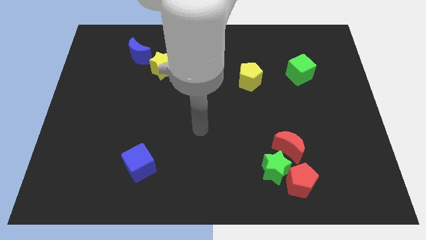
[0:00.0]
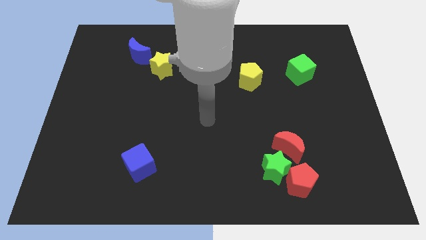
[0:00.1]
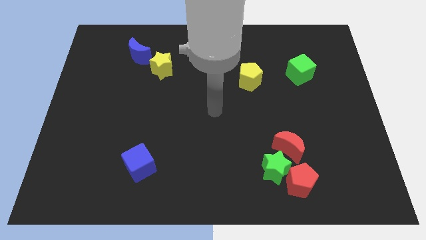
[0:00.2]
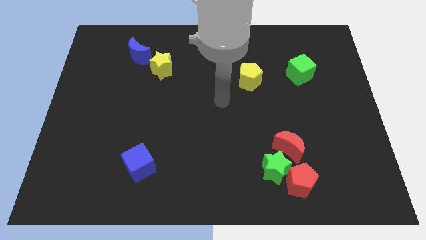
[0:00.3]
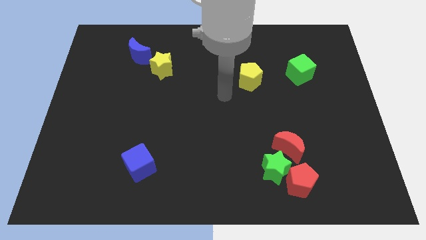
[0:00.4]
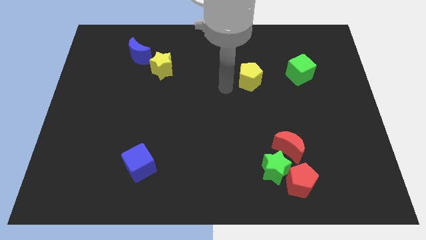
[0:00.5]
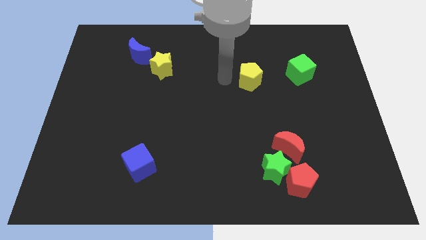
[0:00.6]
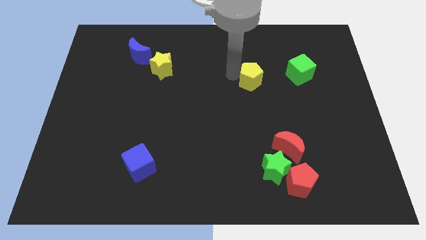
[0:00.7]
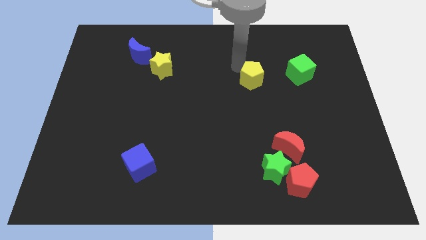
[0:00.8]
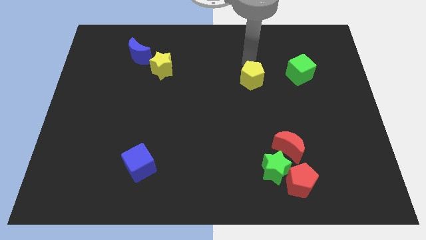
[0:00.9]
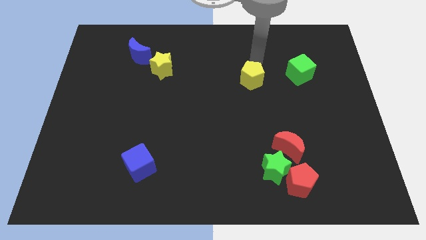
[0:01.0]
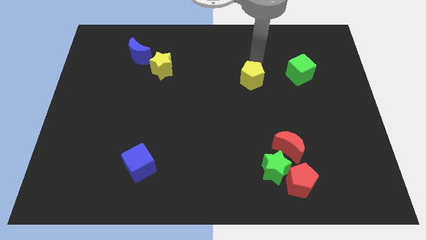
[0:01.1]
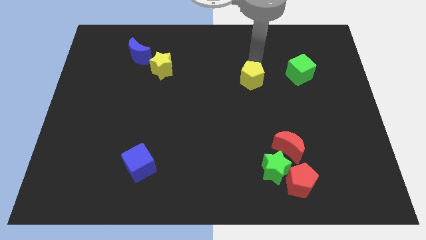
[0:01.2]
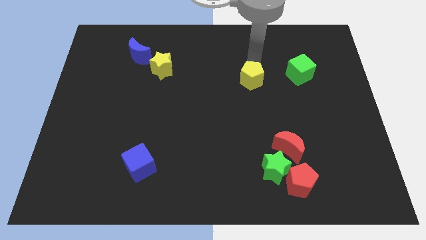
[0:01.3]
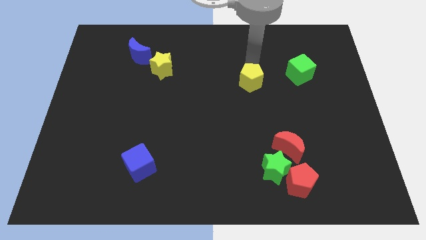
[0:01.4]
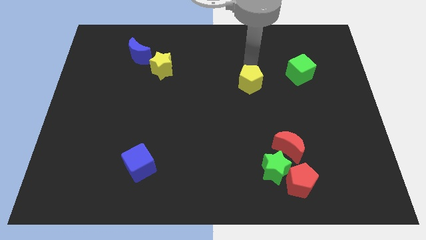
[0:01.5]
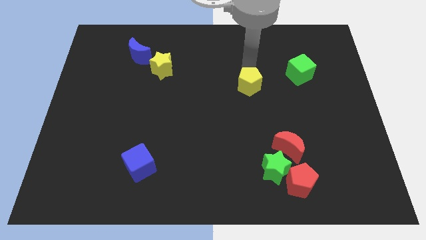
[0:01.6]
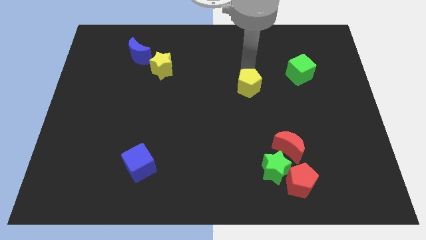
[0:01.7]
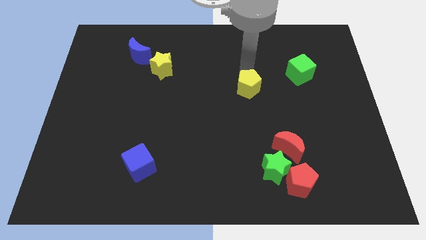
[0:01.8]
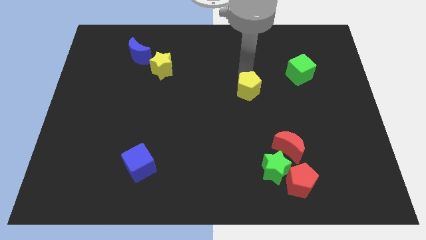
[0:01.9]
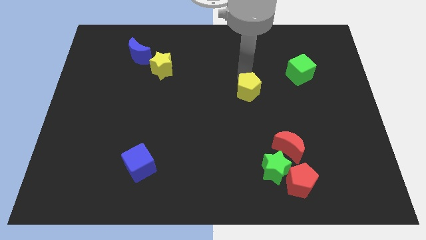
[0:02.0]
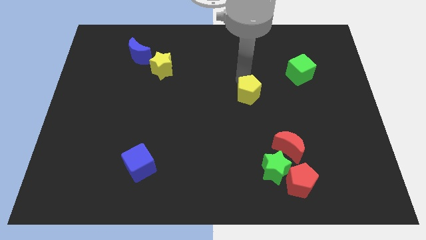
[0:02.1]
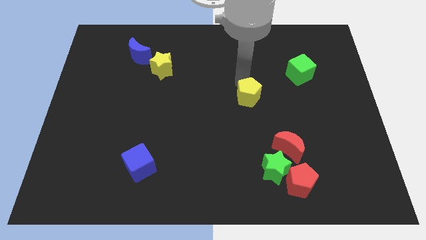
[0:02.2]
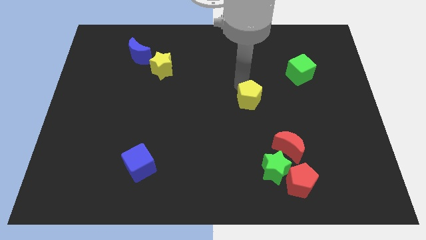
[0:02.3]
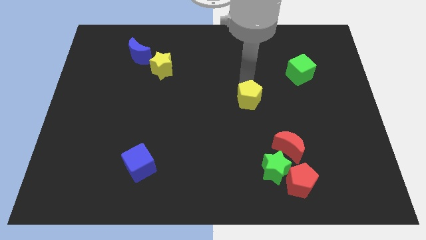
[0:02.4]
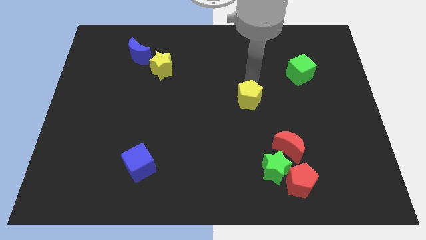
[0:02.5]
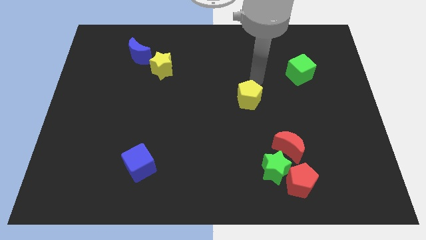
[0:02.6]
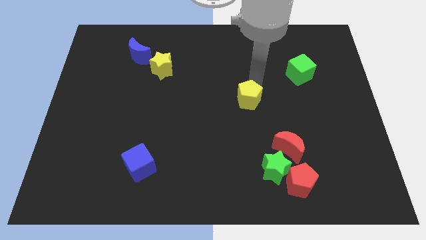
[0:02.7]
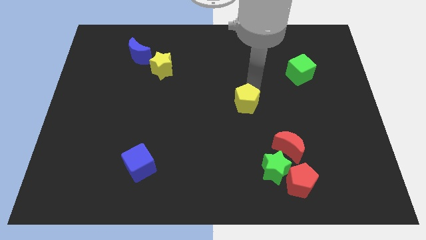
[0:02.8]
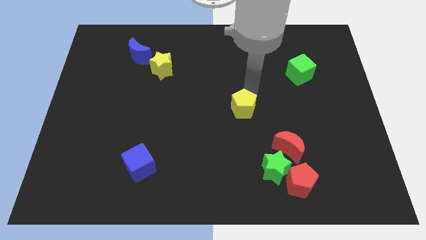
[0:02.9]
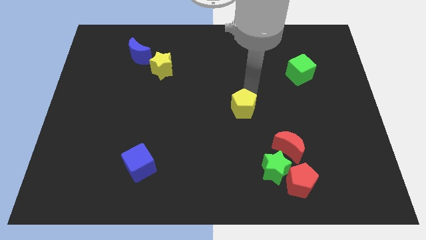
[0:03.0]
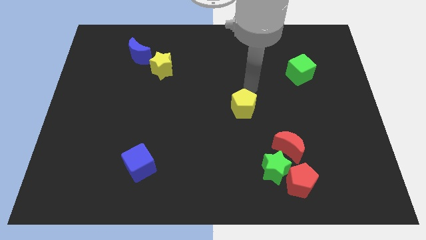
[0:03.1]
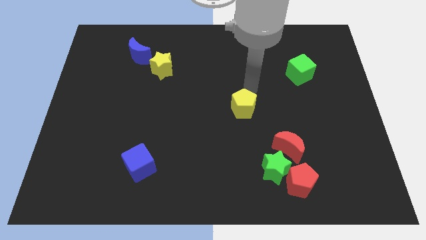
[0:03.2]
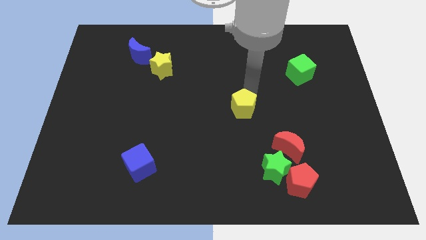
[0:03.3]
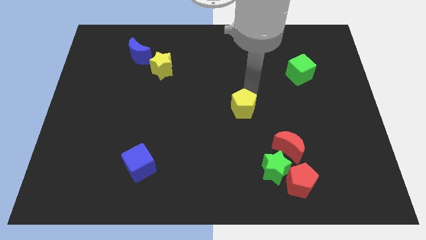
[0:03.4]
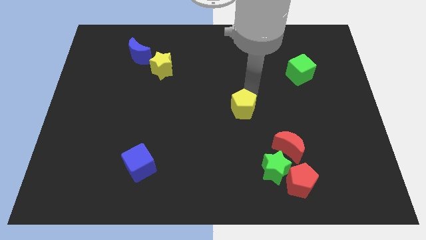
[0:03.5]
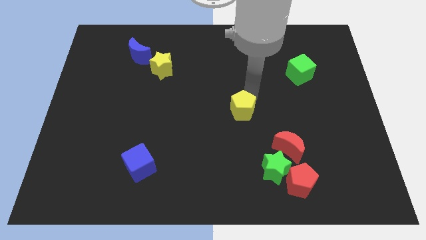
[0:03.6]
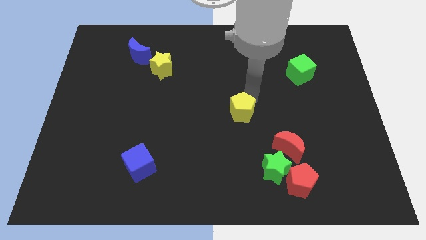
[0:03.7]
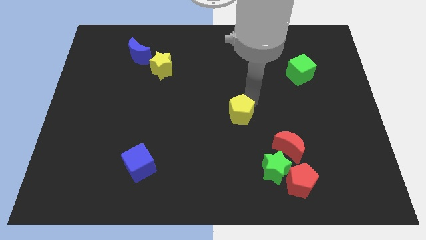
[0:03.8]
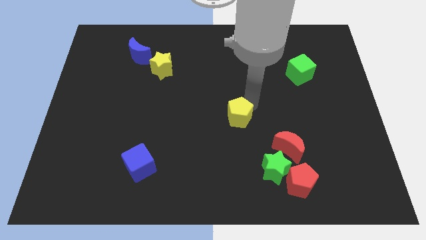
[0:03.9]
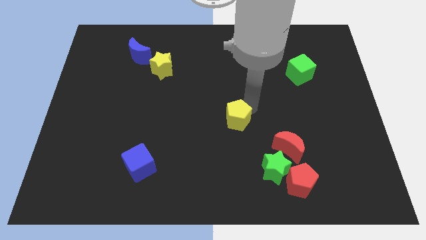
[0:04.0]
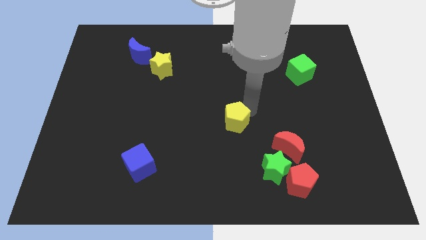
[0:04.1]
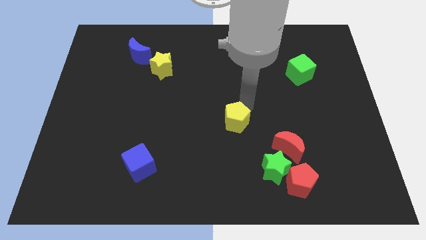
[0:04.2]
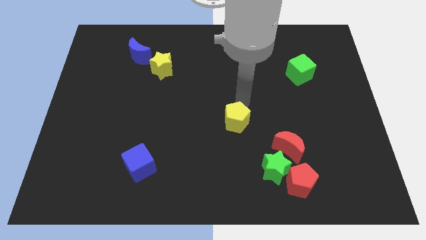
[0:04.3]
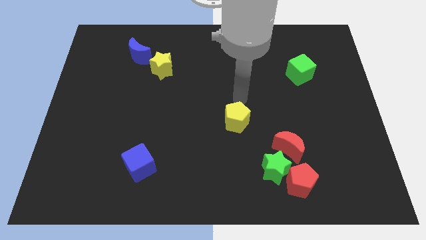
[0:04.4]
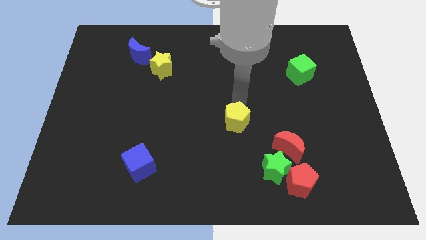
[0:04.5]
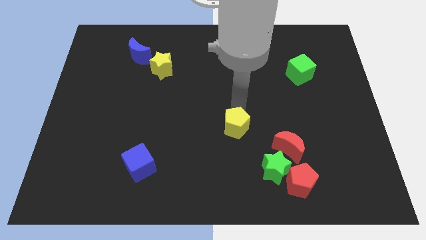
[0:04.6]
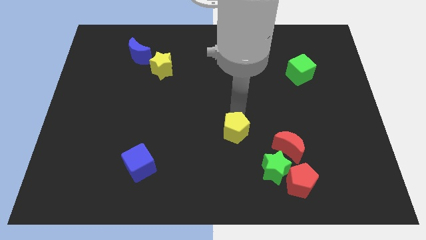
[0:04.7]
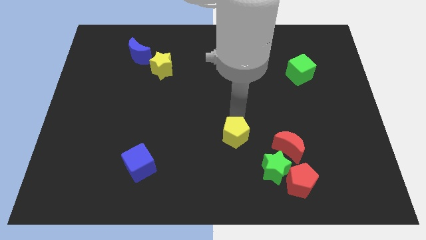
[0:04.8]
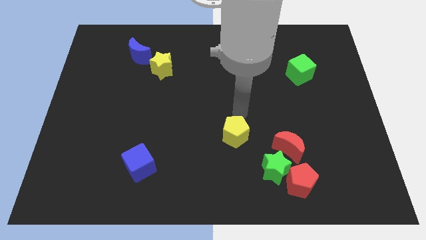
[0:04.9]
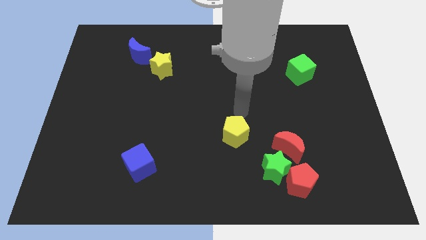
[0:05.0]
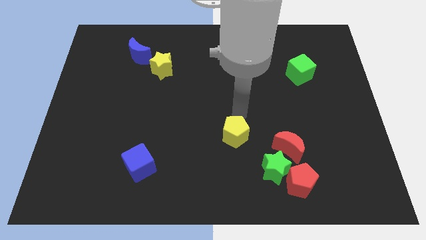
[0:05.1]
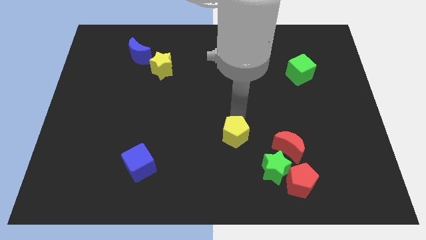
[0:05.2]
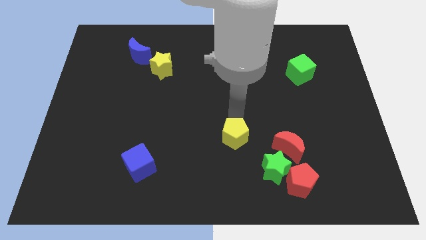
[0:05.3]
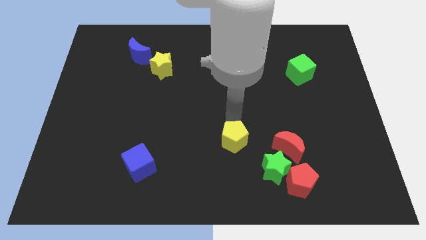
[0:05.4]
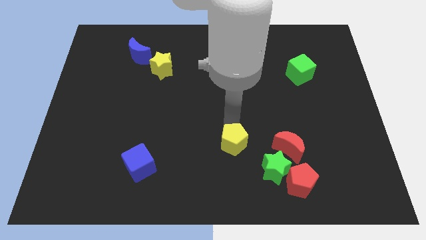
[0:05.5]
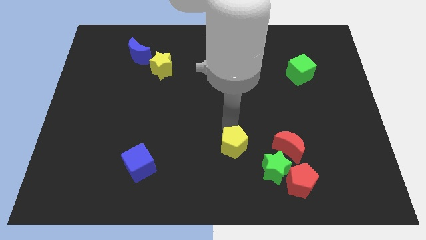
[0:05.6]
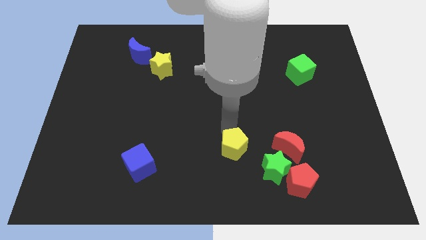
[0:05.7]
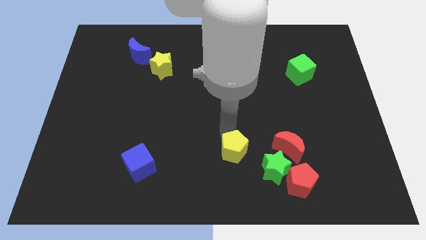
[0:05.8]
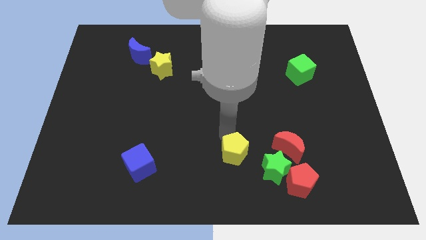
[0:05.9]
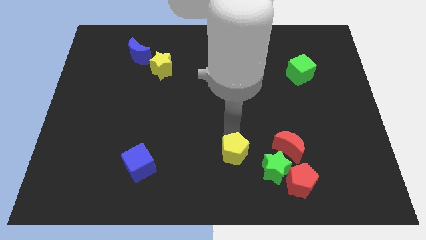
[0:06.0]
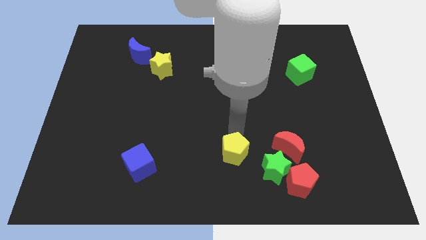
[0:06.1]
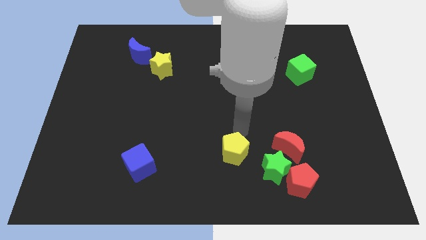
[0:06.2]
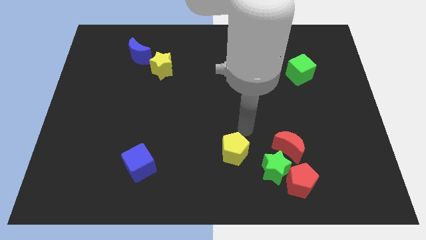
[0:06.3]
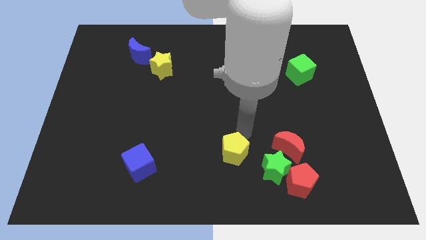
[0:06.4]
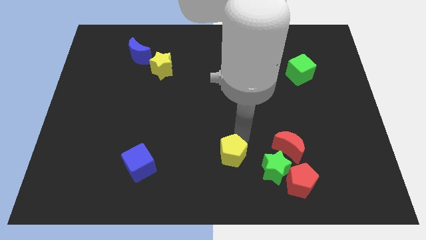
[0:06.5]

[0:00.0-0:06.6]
move the yellow pentagon to the bottom
